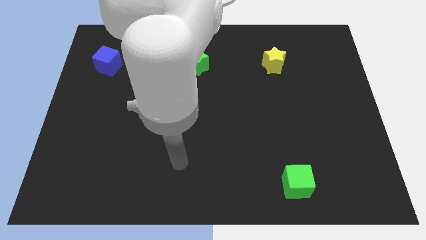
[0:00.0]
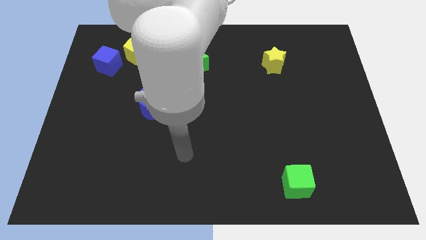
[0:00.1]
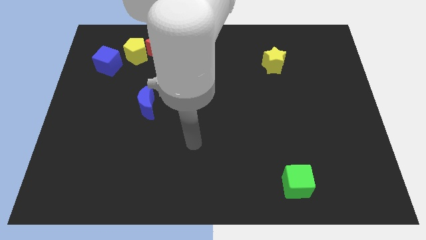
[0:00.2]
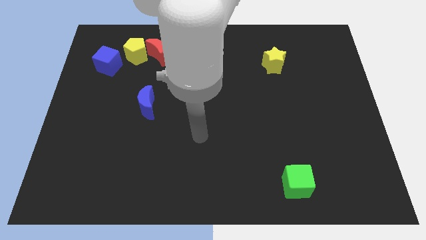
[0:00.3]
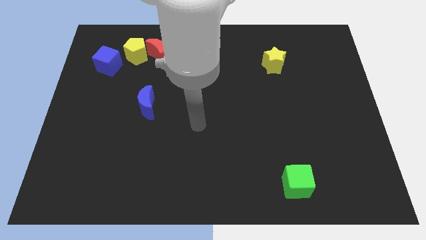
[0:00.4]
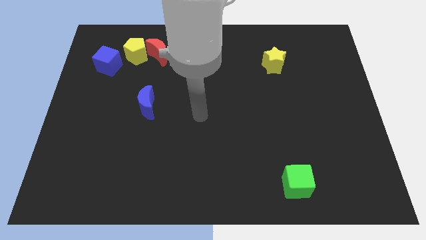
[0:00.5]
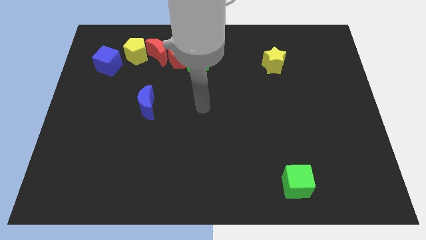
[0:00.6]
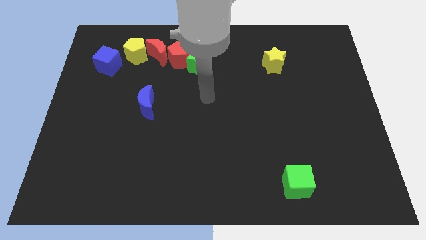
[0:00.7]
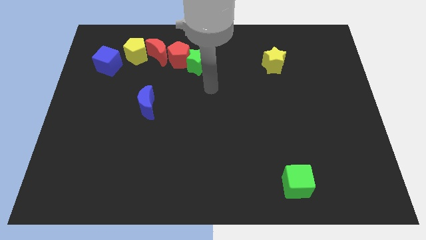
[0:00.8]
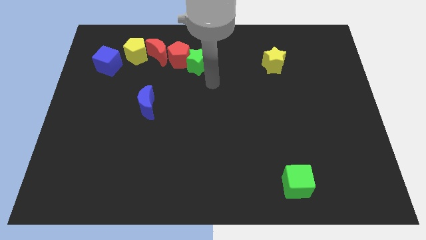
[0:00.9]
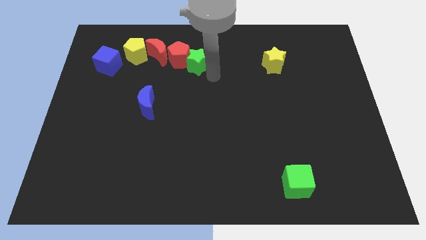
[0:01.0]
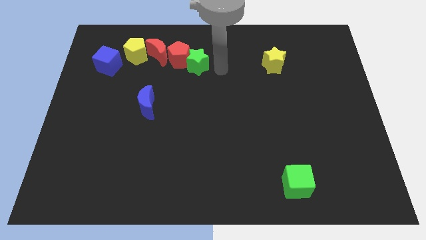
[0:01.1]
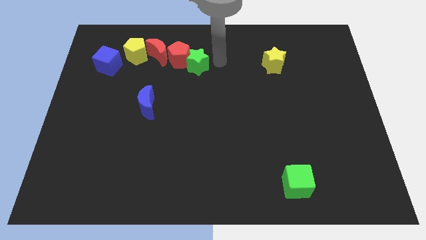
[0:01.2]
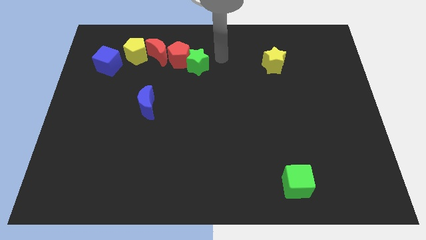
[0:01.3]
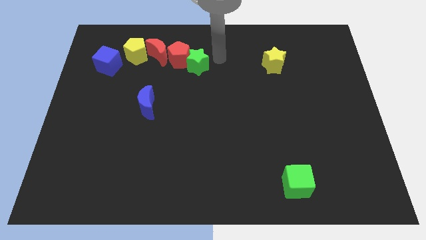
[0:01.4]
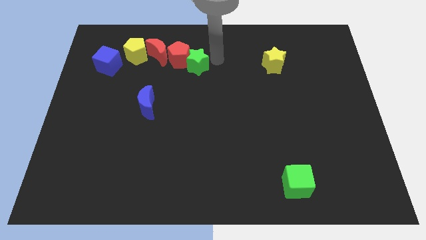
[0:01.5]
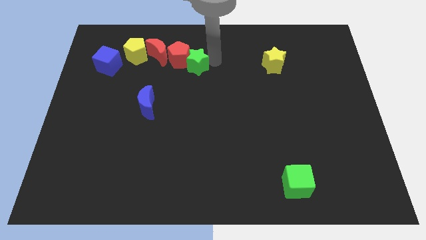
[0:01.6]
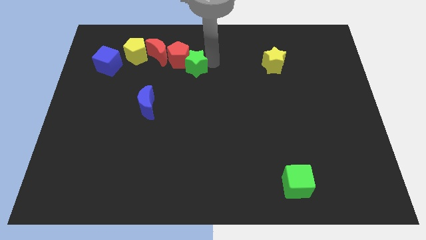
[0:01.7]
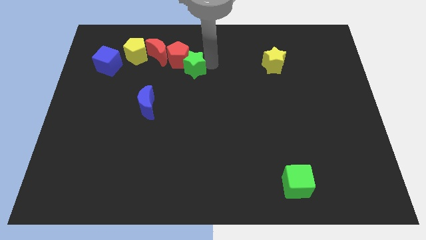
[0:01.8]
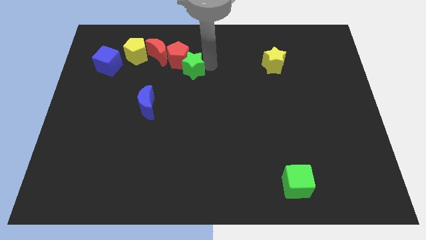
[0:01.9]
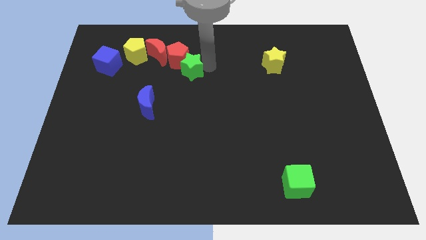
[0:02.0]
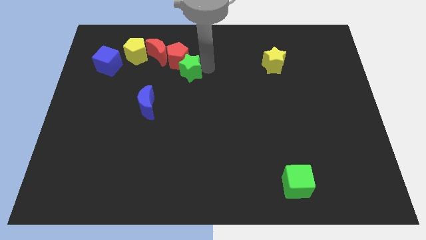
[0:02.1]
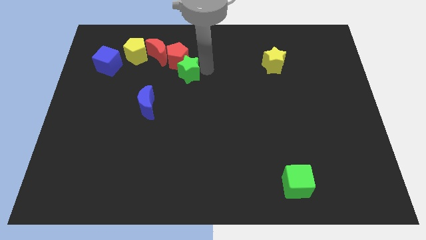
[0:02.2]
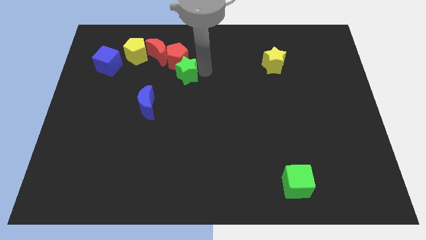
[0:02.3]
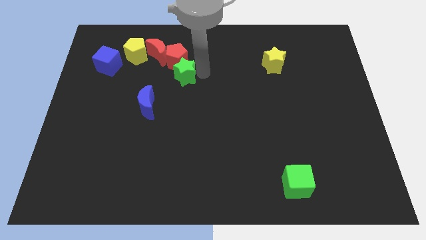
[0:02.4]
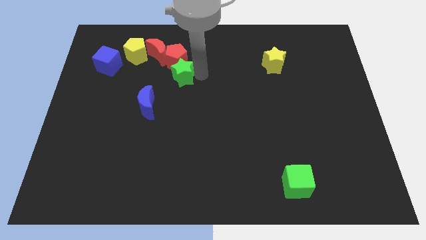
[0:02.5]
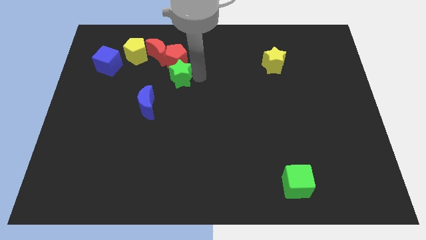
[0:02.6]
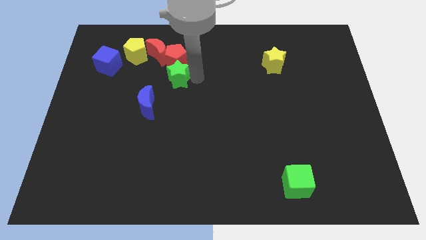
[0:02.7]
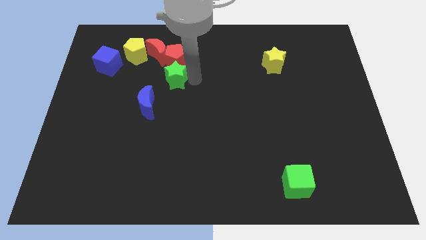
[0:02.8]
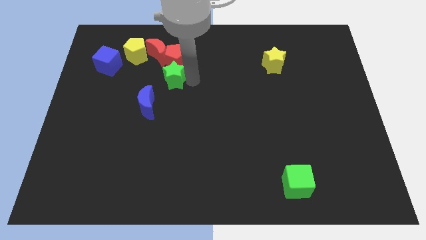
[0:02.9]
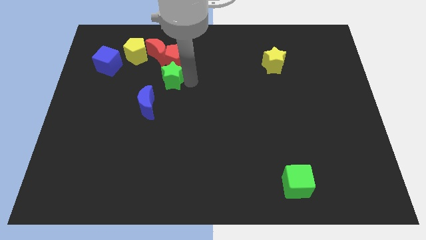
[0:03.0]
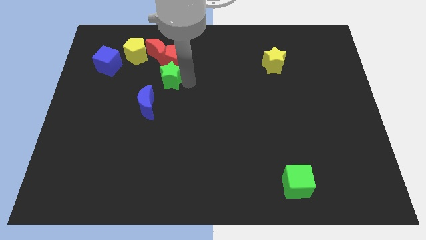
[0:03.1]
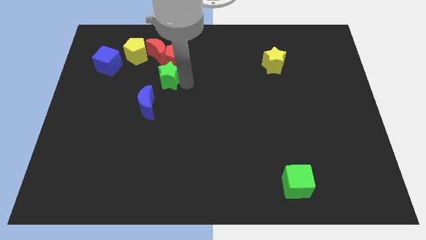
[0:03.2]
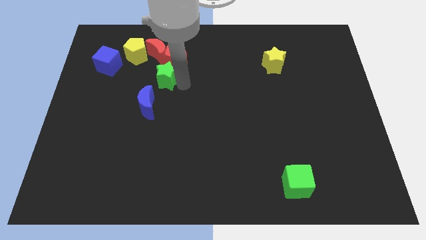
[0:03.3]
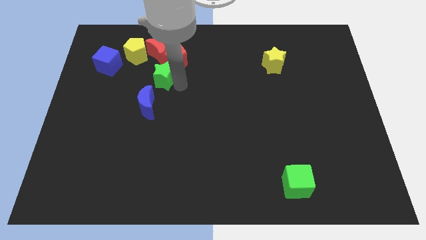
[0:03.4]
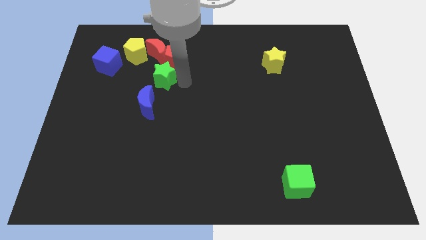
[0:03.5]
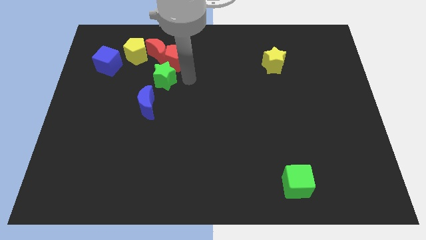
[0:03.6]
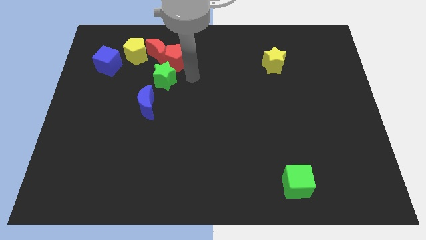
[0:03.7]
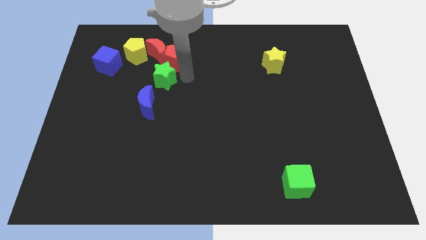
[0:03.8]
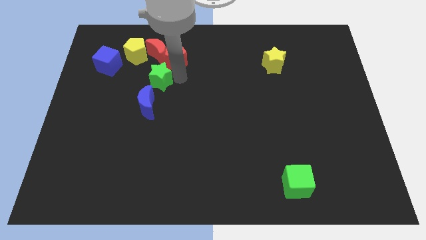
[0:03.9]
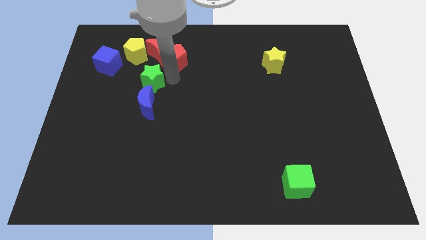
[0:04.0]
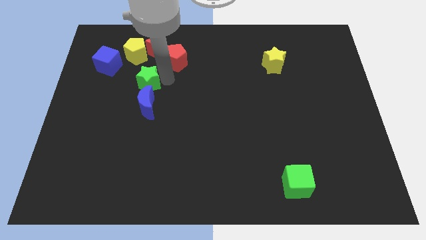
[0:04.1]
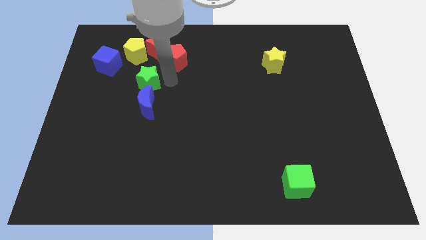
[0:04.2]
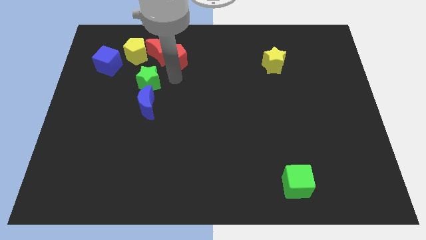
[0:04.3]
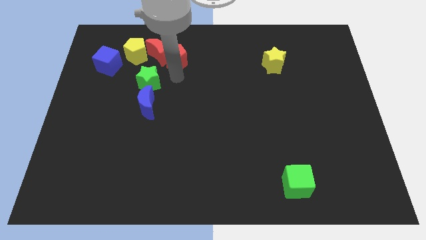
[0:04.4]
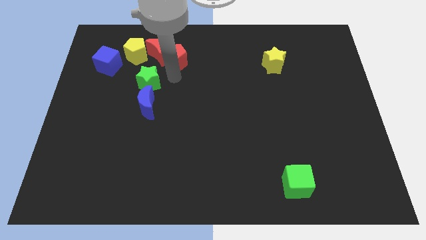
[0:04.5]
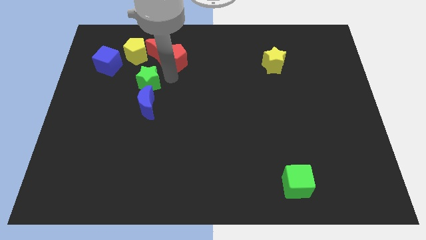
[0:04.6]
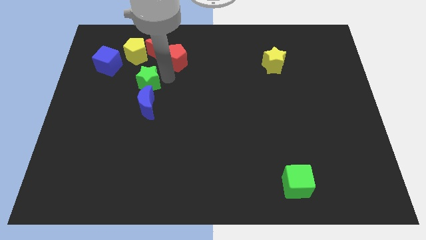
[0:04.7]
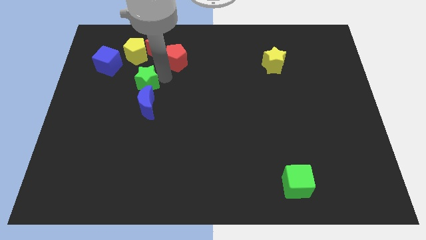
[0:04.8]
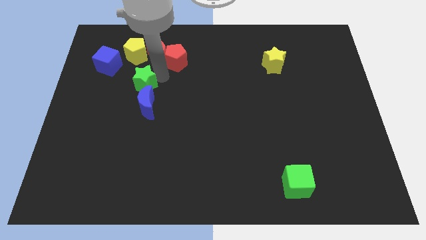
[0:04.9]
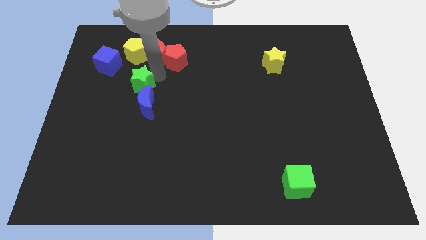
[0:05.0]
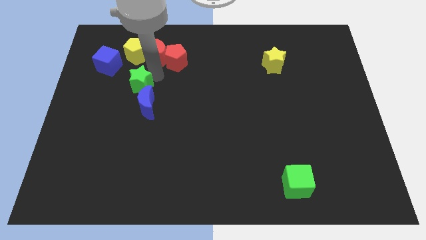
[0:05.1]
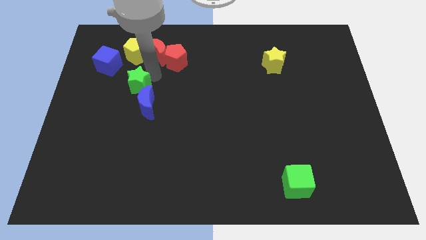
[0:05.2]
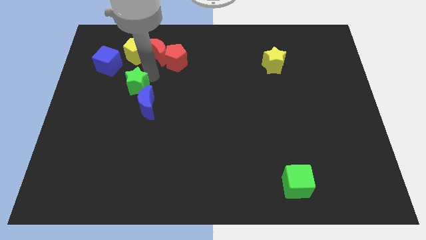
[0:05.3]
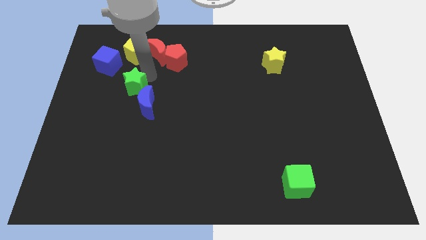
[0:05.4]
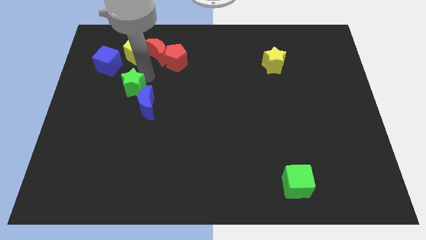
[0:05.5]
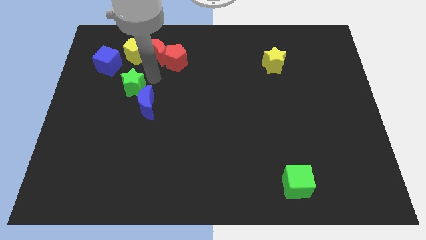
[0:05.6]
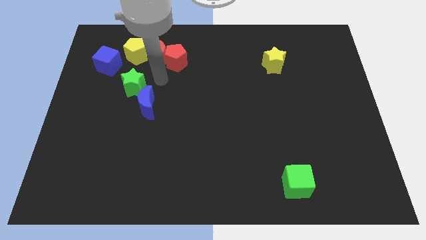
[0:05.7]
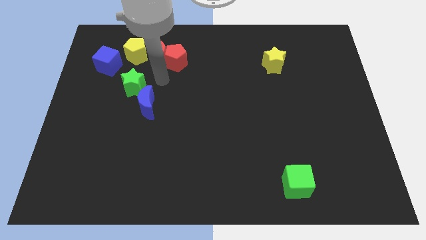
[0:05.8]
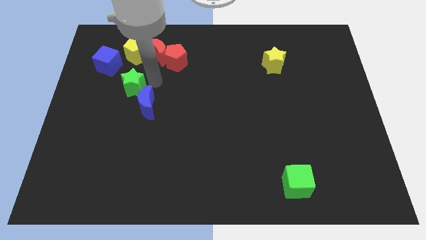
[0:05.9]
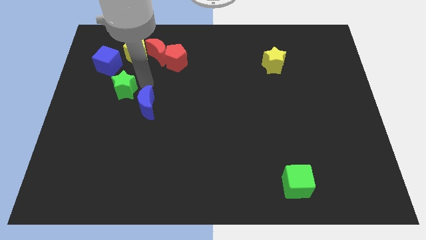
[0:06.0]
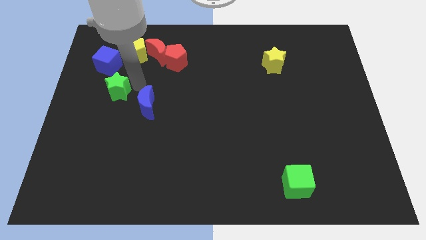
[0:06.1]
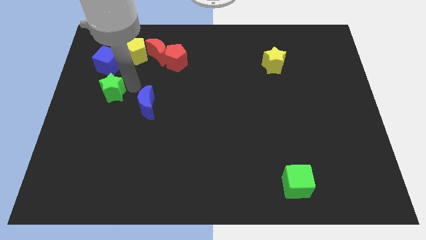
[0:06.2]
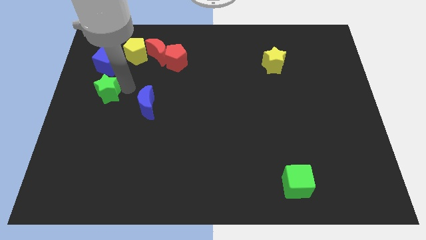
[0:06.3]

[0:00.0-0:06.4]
put the green star to the left side of the board
